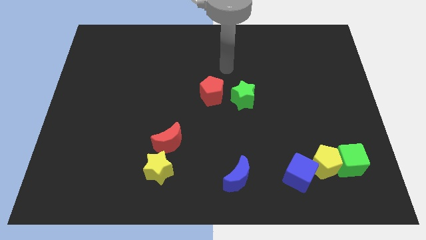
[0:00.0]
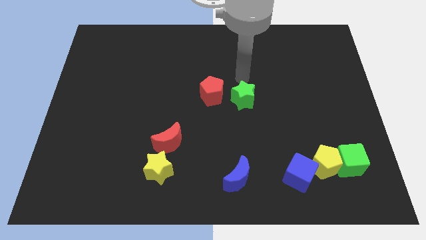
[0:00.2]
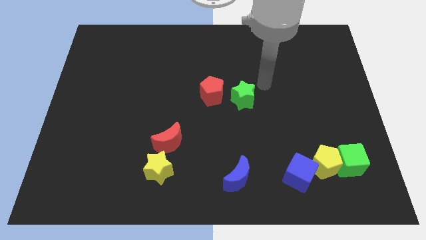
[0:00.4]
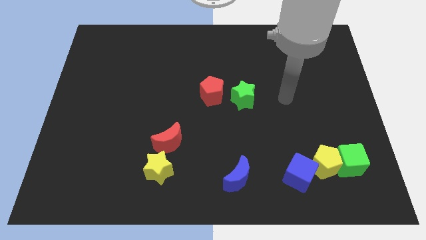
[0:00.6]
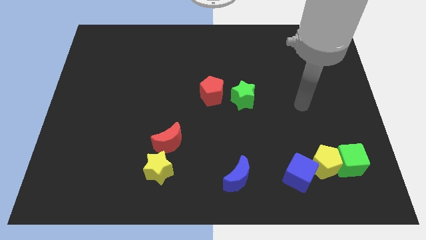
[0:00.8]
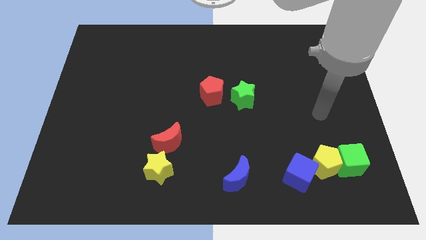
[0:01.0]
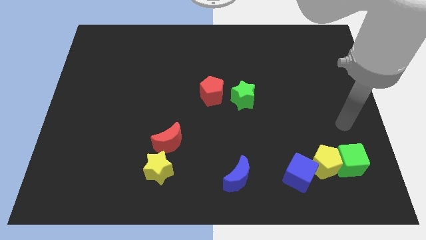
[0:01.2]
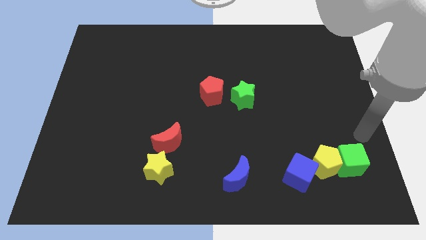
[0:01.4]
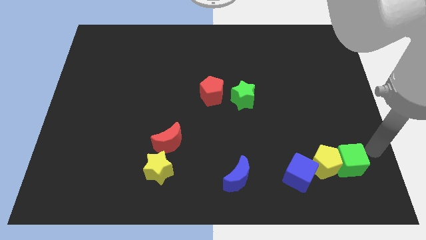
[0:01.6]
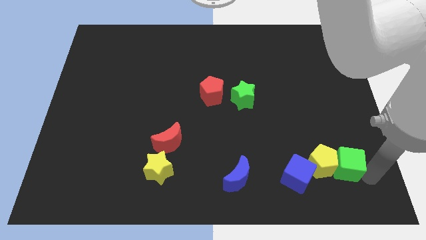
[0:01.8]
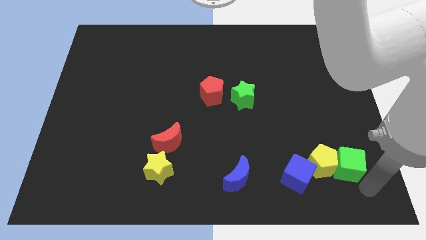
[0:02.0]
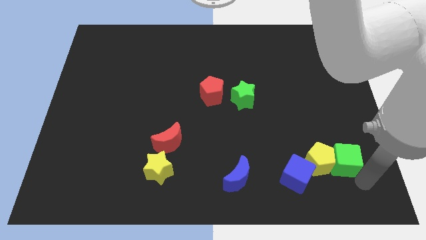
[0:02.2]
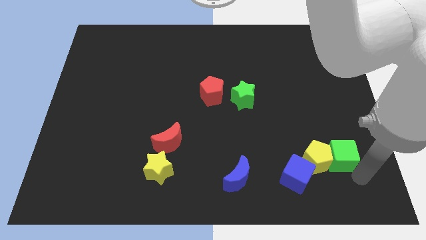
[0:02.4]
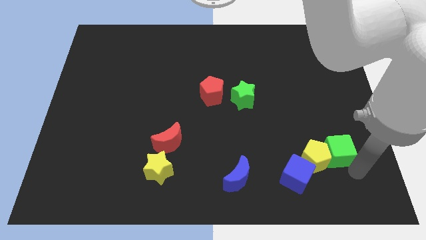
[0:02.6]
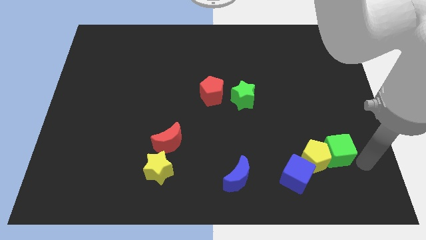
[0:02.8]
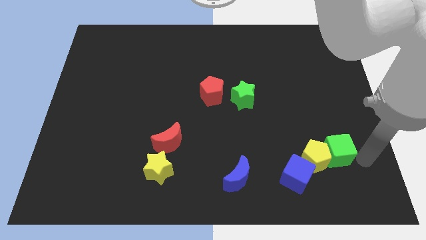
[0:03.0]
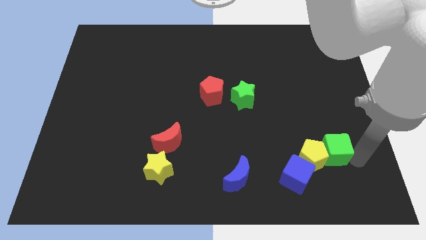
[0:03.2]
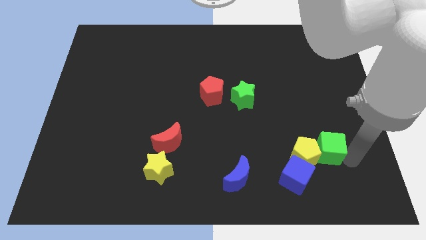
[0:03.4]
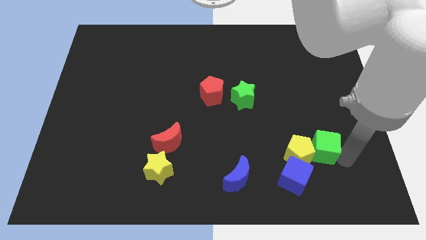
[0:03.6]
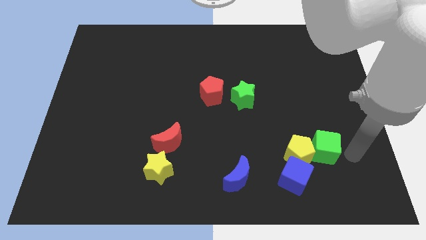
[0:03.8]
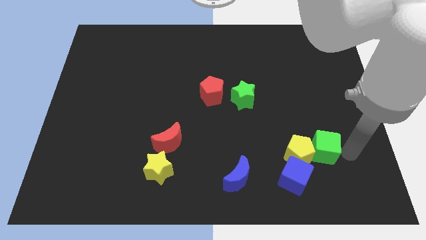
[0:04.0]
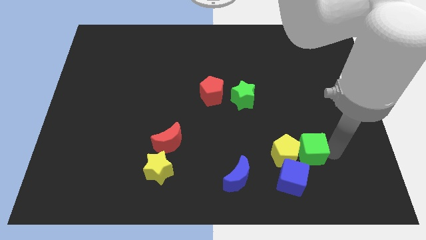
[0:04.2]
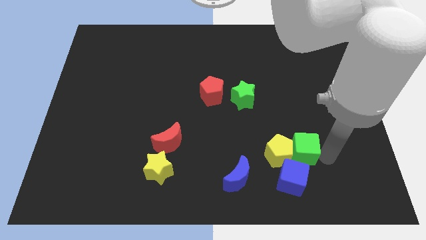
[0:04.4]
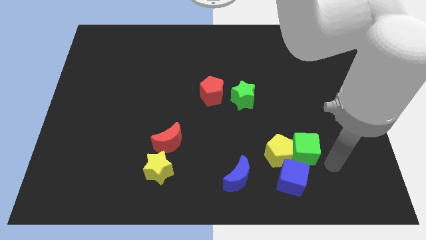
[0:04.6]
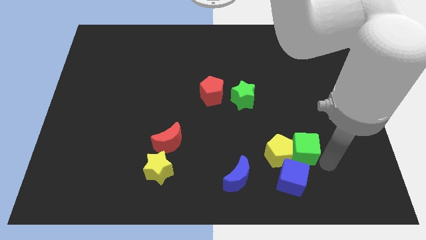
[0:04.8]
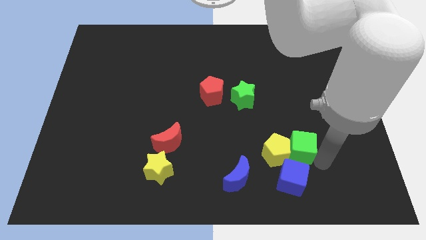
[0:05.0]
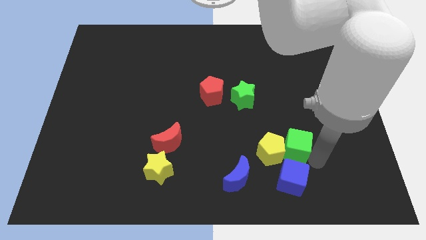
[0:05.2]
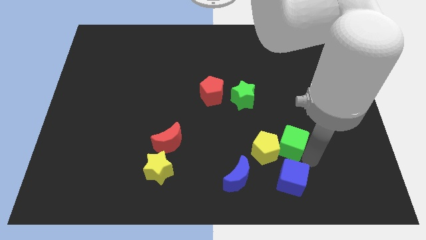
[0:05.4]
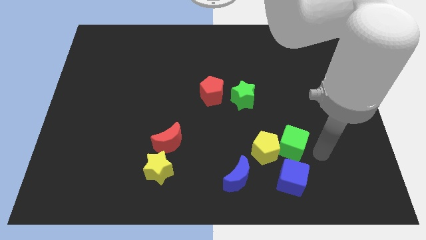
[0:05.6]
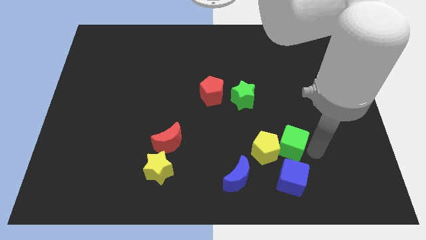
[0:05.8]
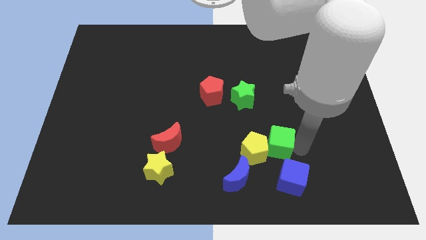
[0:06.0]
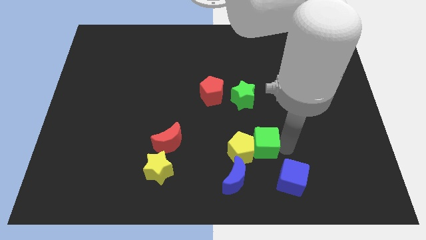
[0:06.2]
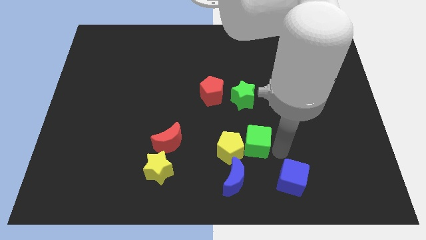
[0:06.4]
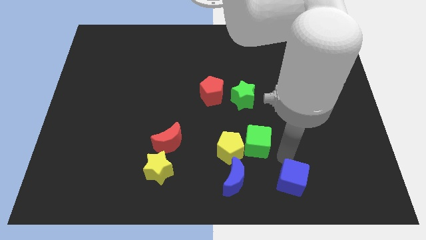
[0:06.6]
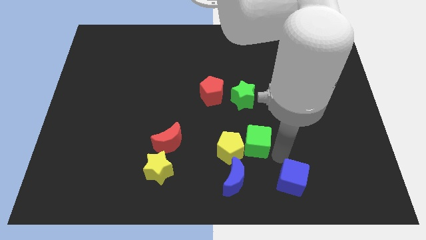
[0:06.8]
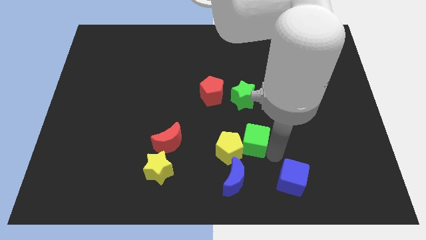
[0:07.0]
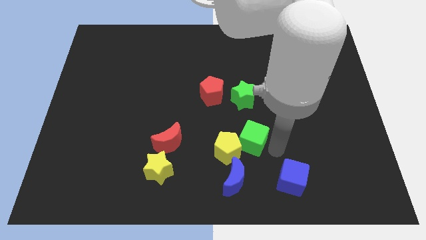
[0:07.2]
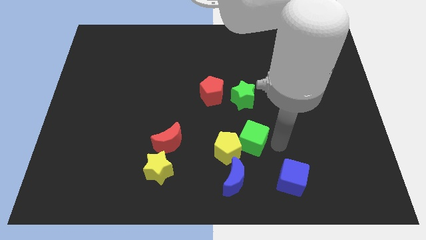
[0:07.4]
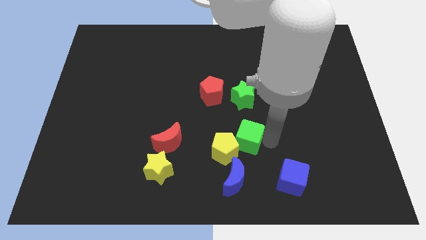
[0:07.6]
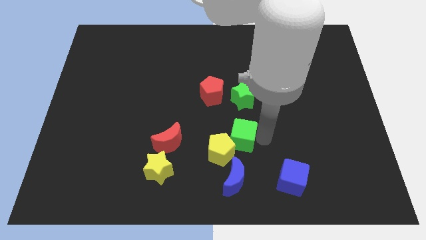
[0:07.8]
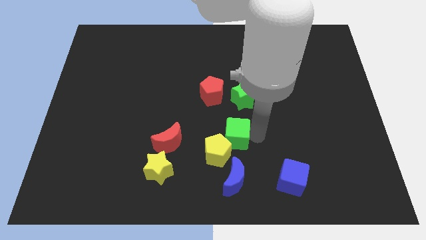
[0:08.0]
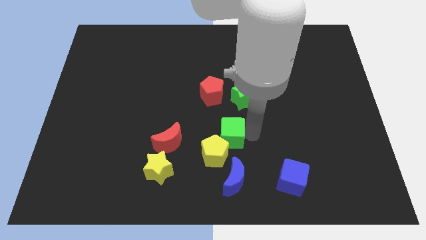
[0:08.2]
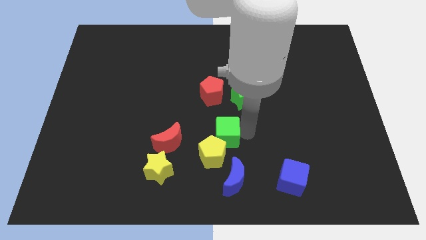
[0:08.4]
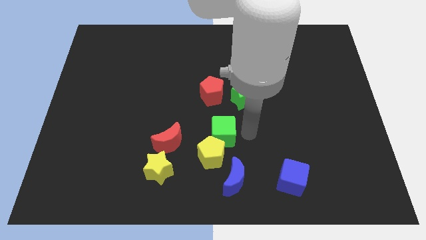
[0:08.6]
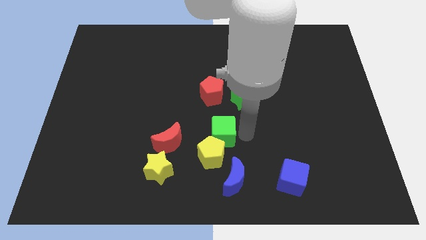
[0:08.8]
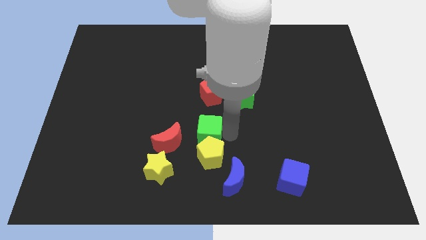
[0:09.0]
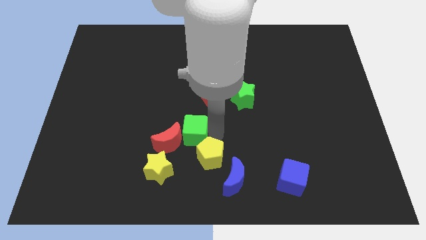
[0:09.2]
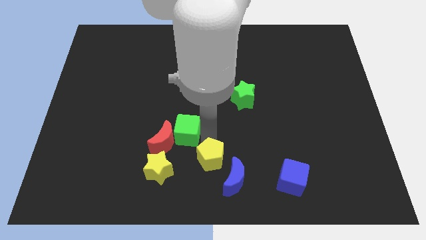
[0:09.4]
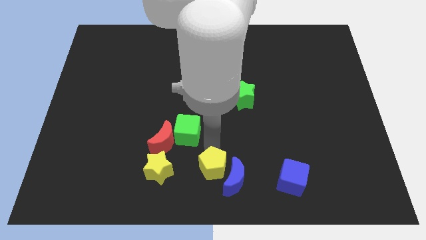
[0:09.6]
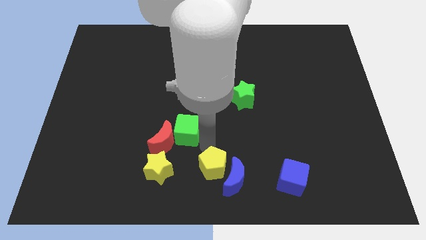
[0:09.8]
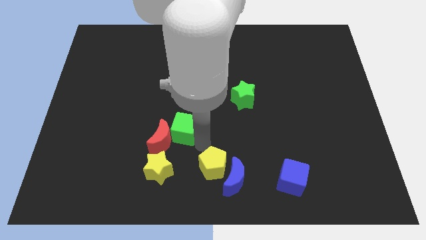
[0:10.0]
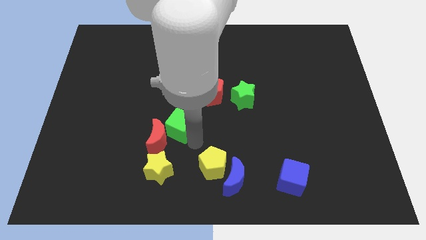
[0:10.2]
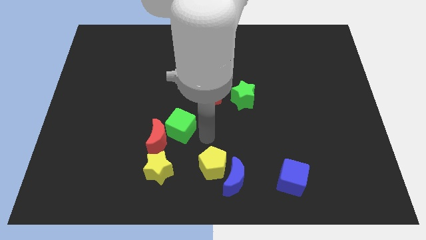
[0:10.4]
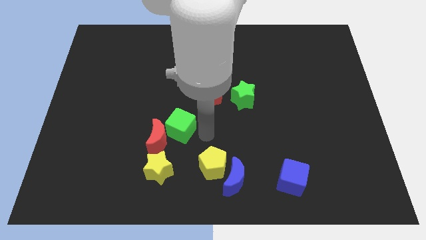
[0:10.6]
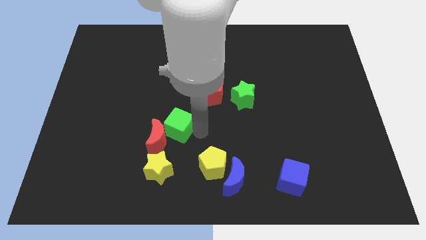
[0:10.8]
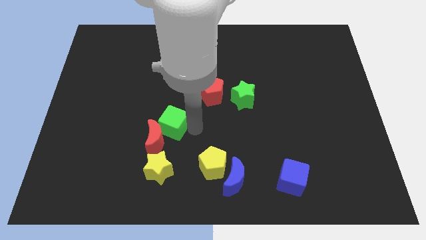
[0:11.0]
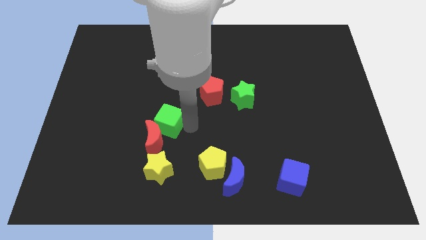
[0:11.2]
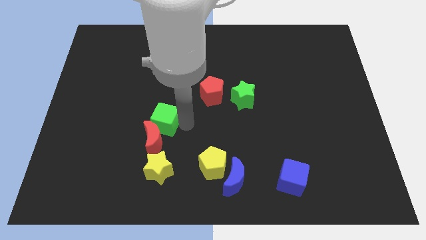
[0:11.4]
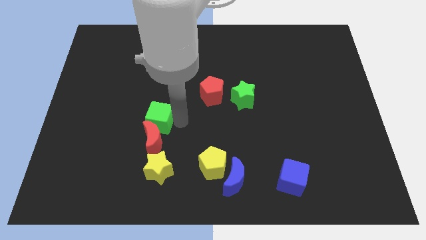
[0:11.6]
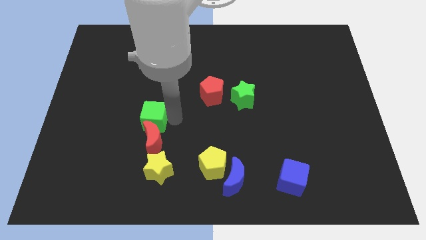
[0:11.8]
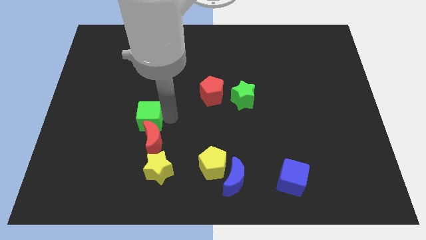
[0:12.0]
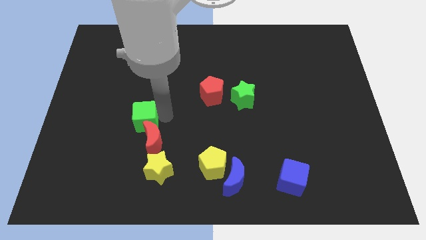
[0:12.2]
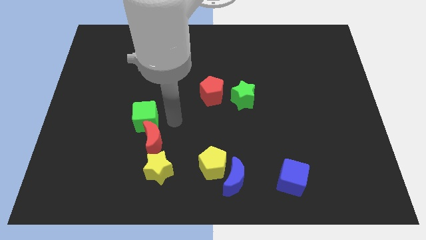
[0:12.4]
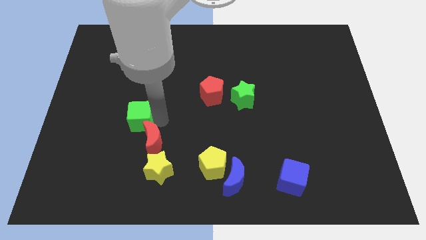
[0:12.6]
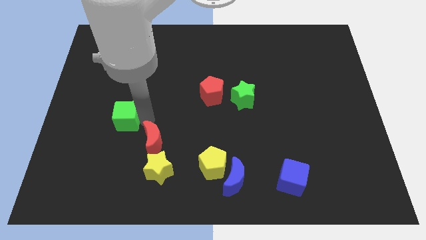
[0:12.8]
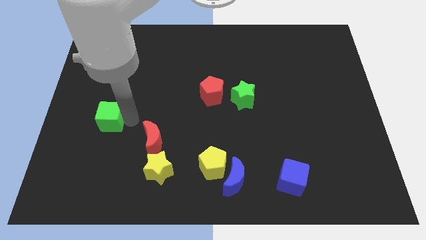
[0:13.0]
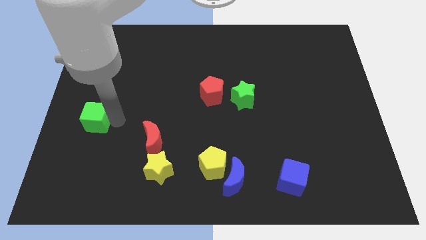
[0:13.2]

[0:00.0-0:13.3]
move the green cube to the left side of the board
